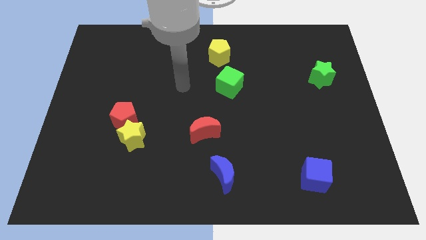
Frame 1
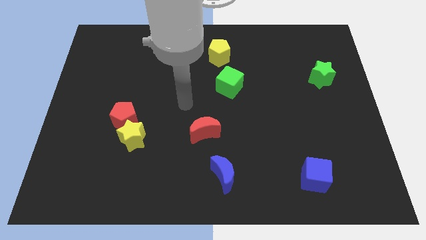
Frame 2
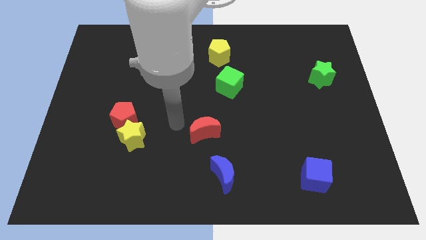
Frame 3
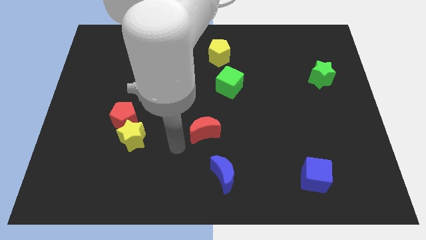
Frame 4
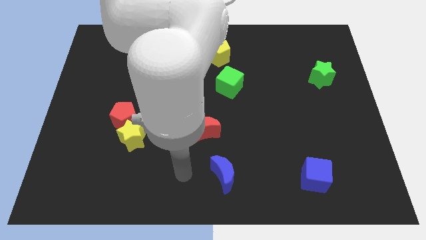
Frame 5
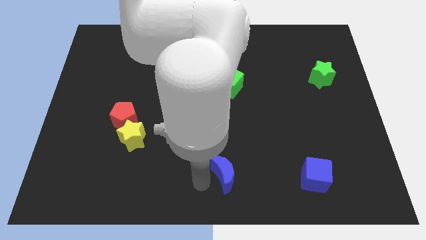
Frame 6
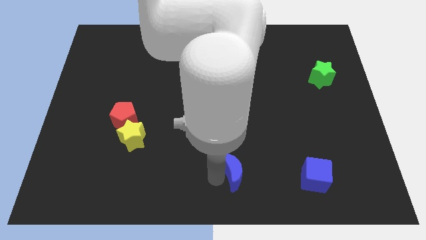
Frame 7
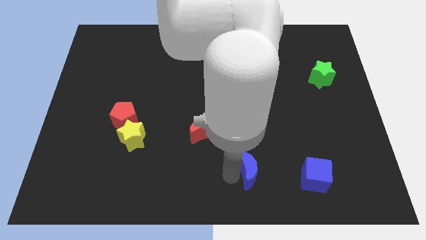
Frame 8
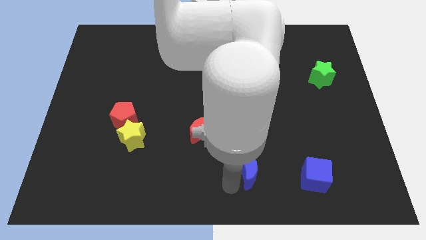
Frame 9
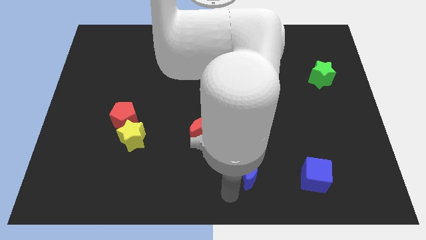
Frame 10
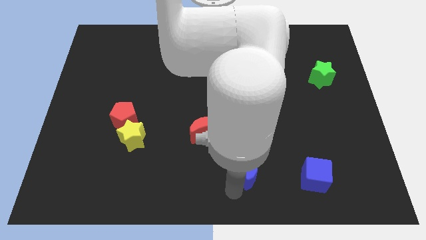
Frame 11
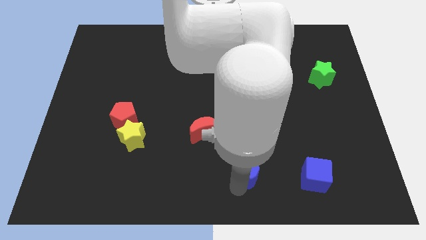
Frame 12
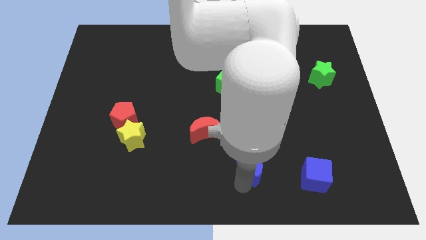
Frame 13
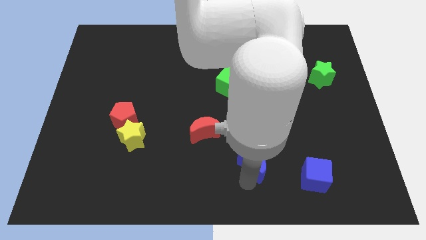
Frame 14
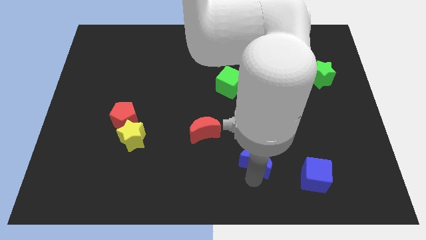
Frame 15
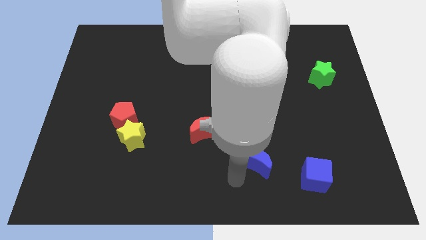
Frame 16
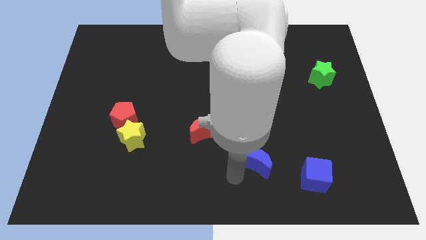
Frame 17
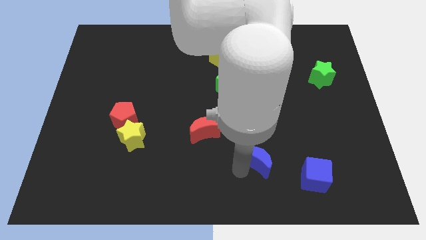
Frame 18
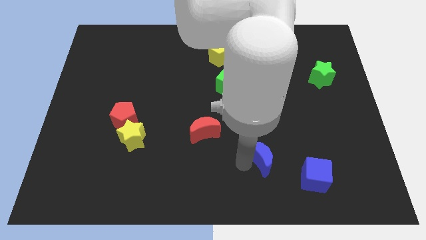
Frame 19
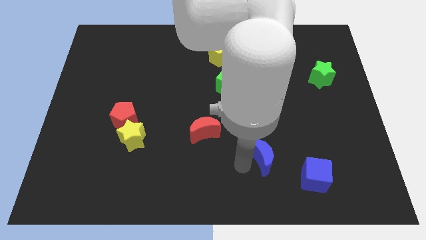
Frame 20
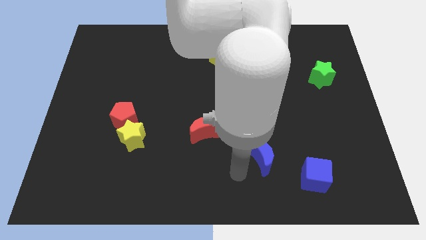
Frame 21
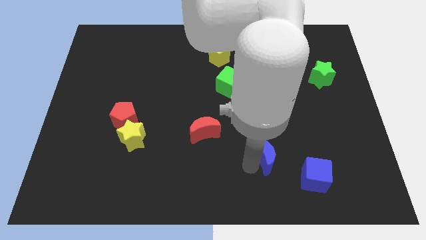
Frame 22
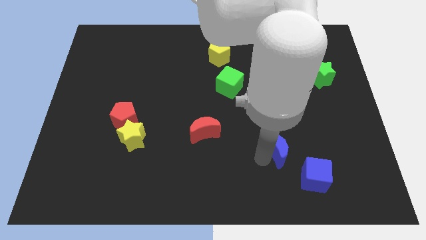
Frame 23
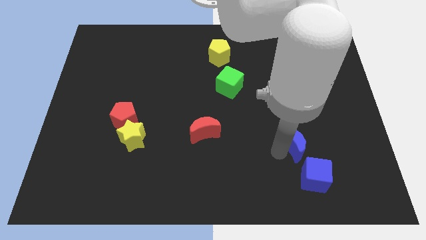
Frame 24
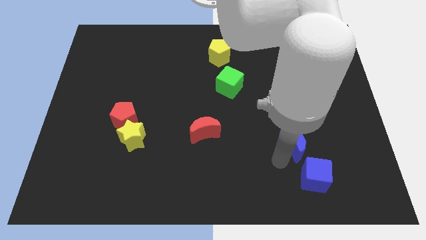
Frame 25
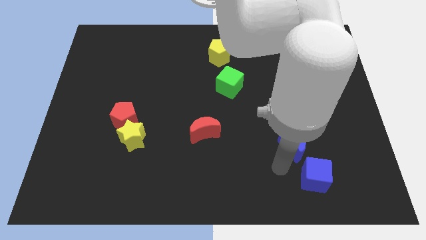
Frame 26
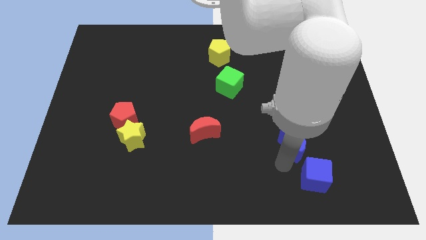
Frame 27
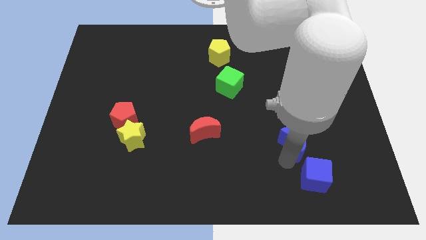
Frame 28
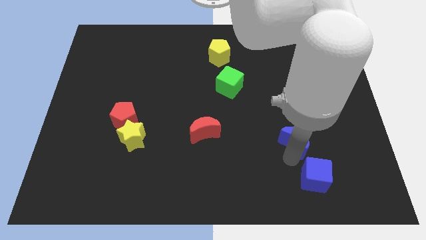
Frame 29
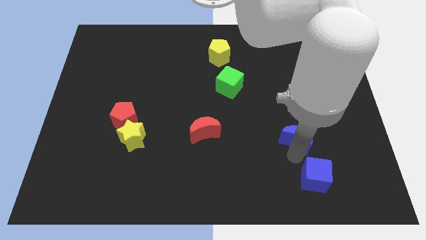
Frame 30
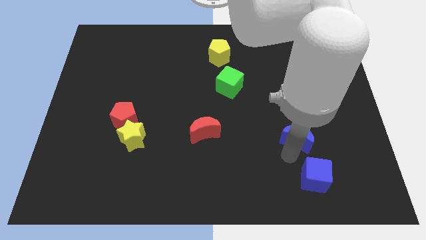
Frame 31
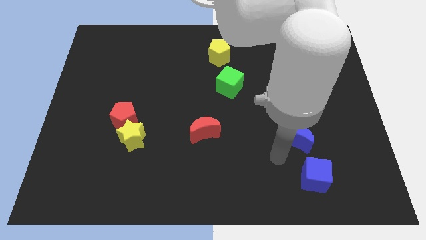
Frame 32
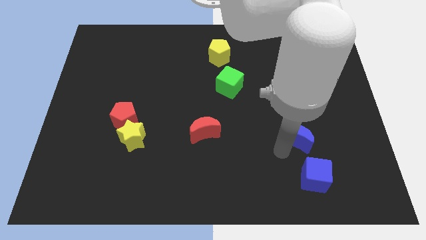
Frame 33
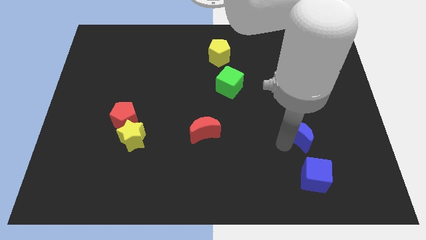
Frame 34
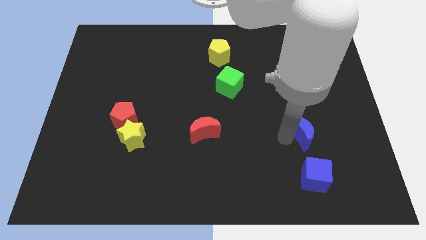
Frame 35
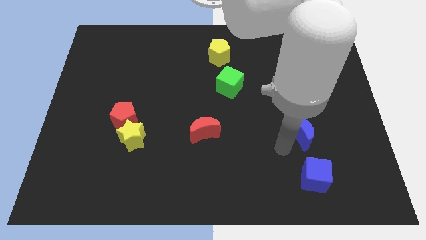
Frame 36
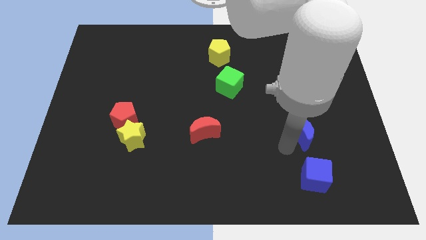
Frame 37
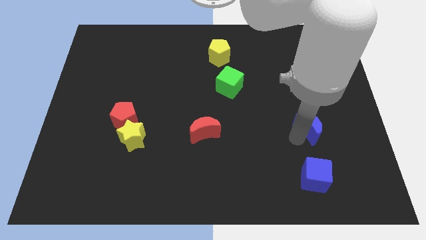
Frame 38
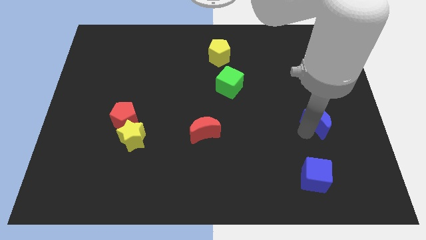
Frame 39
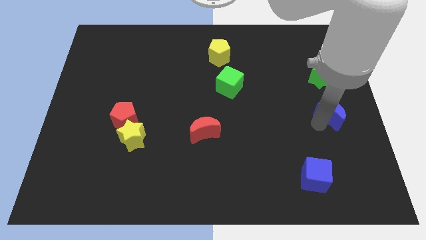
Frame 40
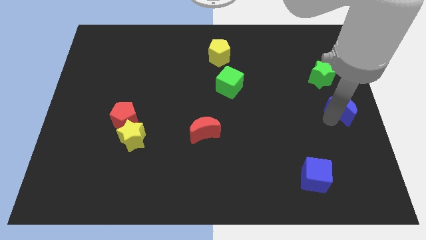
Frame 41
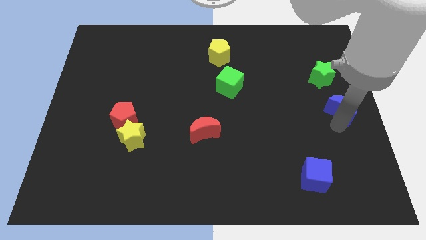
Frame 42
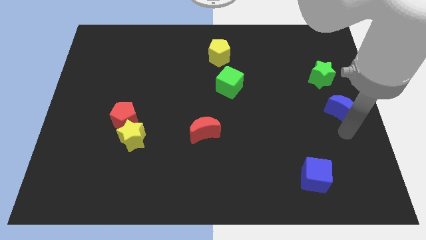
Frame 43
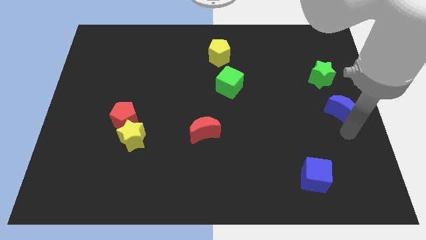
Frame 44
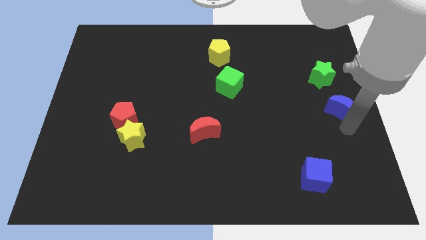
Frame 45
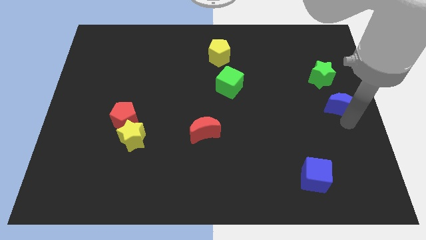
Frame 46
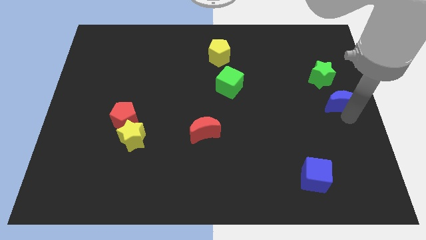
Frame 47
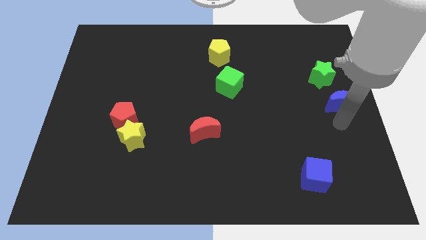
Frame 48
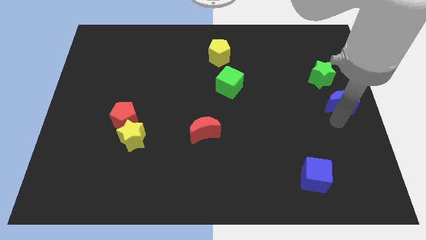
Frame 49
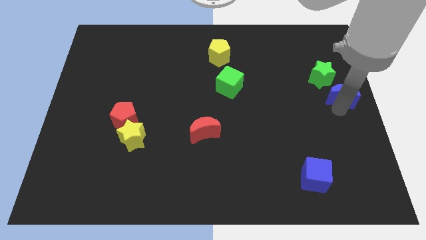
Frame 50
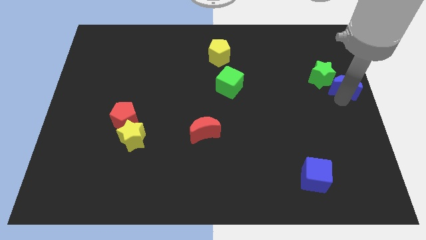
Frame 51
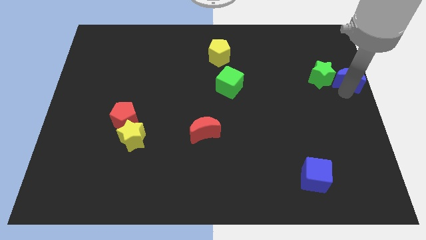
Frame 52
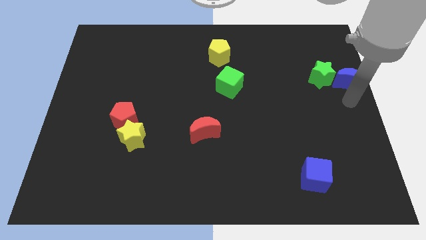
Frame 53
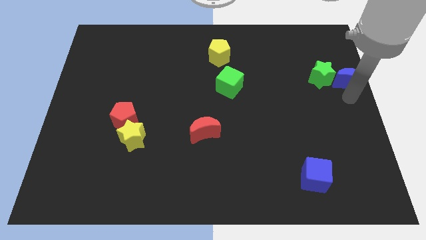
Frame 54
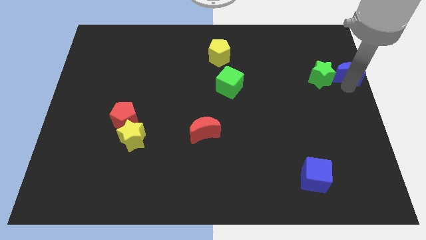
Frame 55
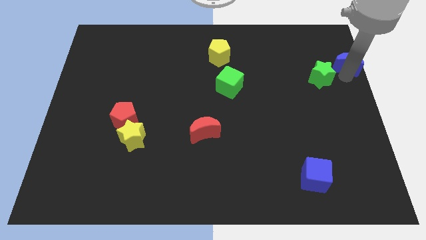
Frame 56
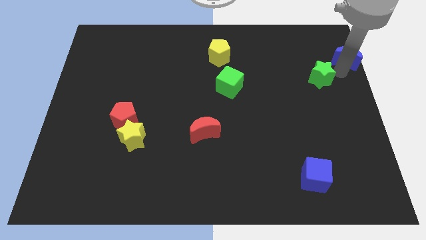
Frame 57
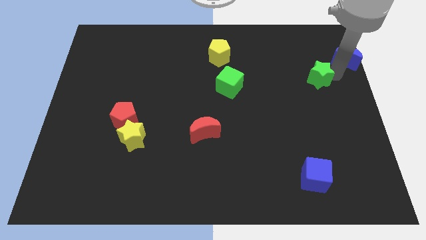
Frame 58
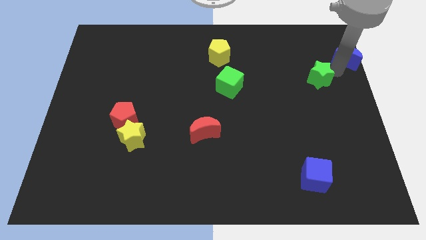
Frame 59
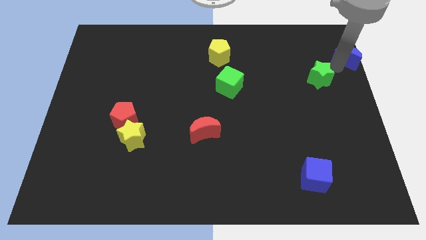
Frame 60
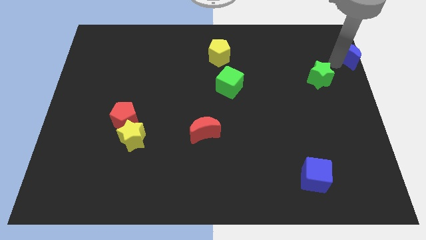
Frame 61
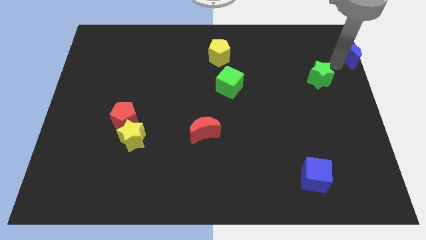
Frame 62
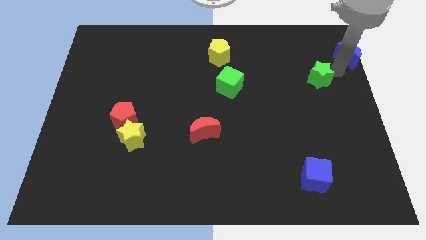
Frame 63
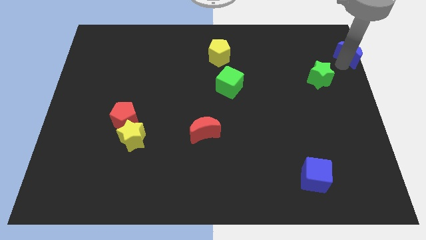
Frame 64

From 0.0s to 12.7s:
push the blue moon to the upper right corner

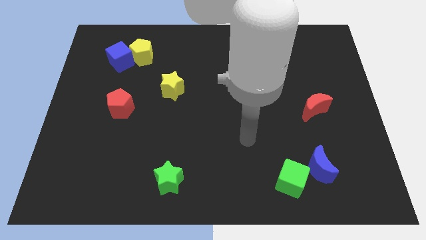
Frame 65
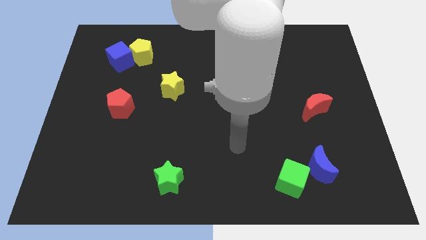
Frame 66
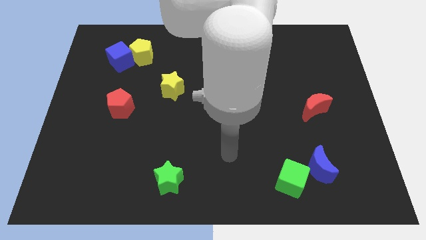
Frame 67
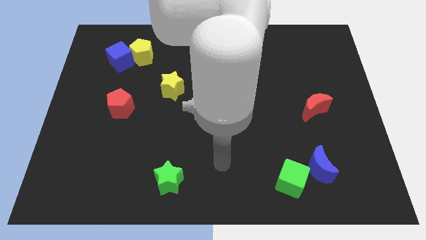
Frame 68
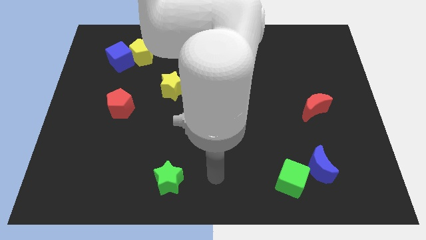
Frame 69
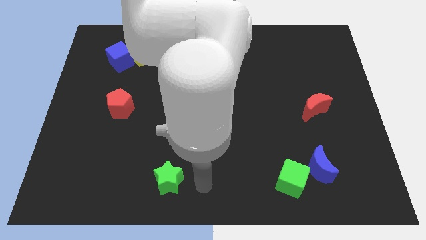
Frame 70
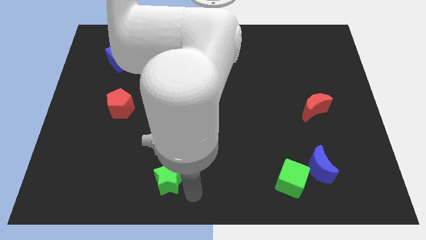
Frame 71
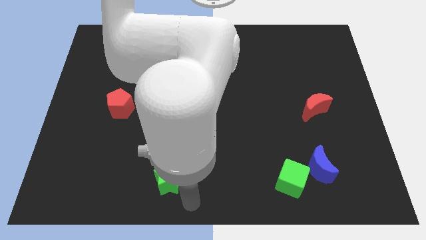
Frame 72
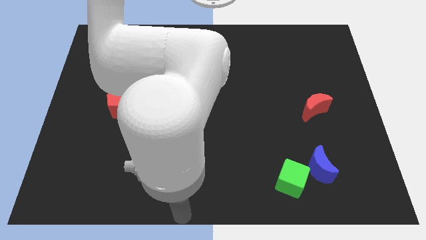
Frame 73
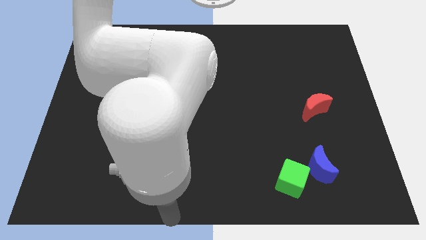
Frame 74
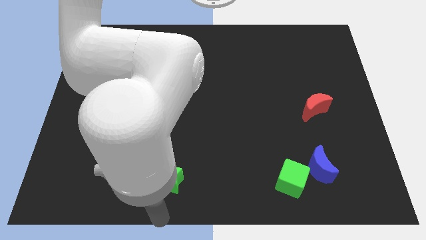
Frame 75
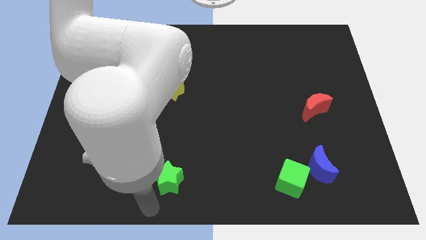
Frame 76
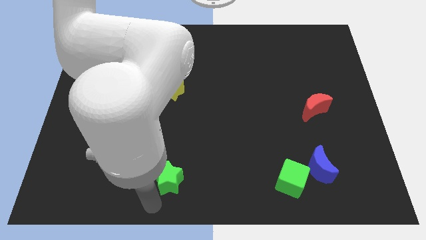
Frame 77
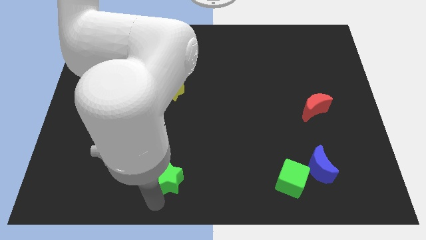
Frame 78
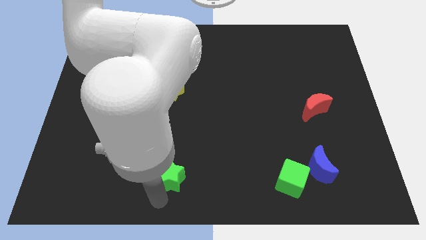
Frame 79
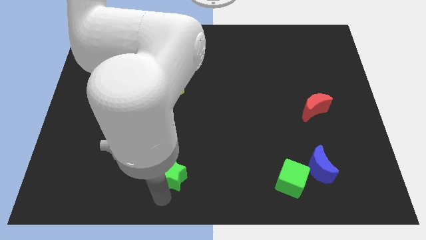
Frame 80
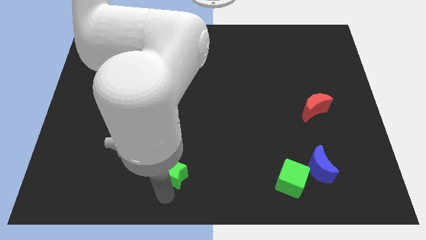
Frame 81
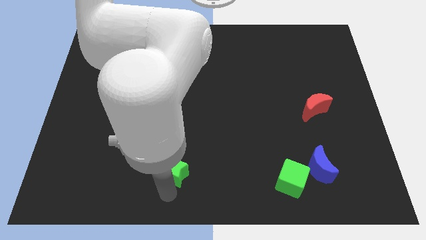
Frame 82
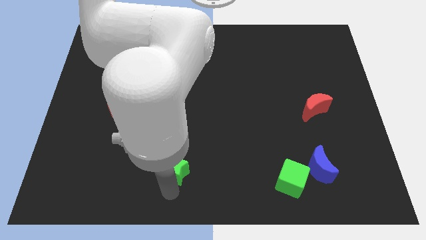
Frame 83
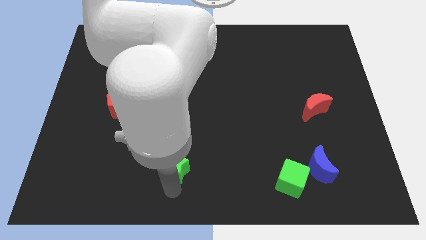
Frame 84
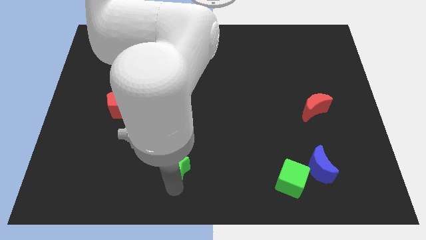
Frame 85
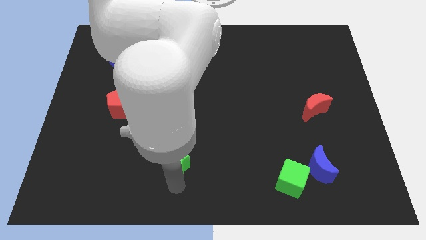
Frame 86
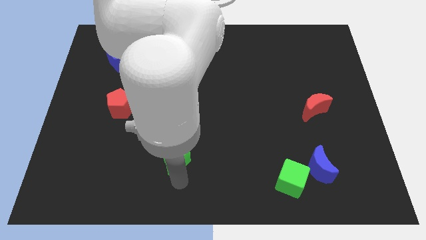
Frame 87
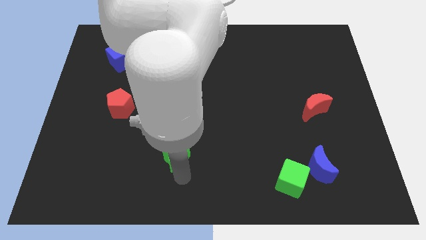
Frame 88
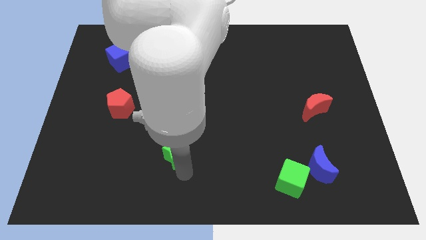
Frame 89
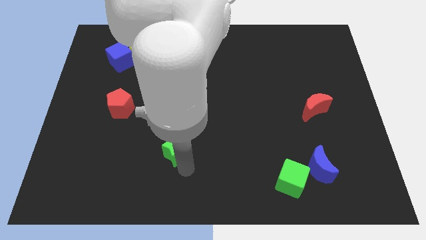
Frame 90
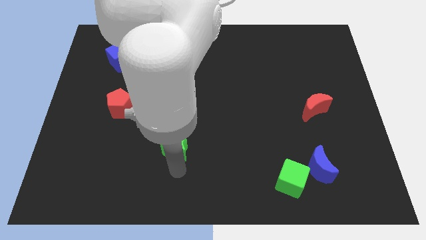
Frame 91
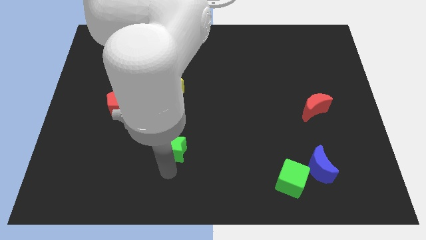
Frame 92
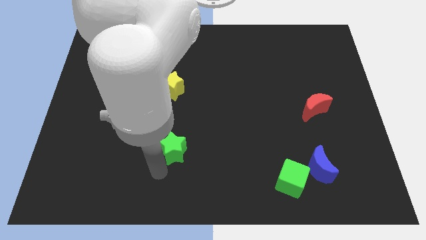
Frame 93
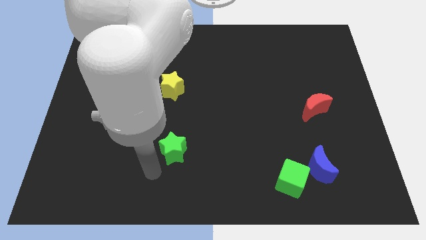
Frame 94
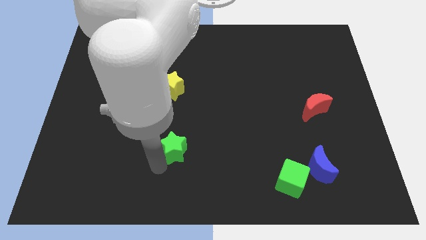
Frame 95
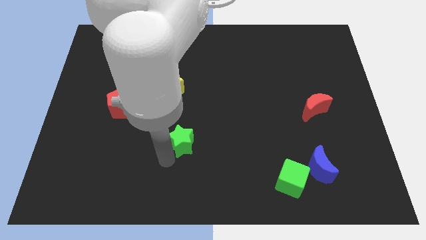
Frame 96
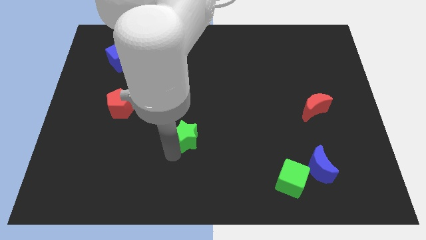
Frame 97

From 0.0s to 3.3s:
move the green star to the middle of the board
